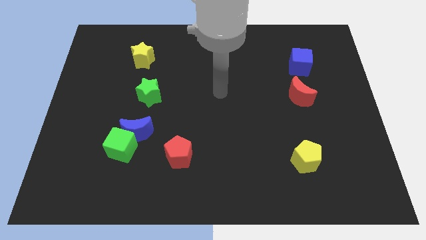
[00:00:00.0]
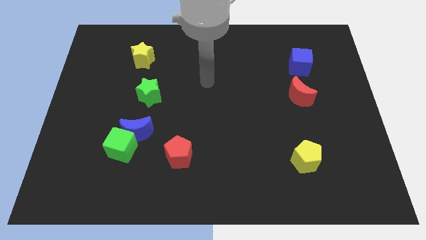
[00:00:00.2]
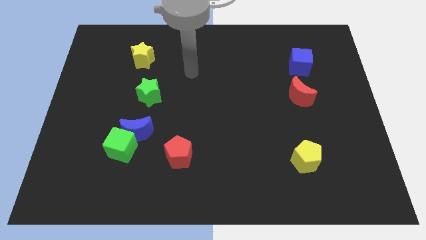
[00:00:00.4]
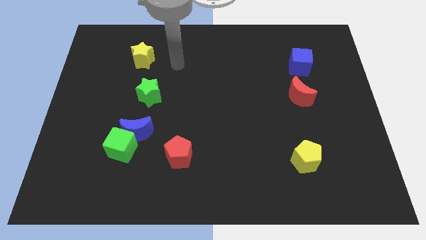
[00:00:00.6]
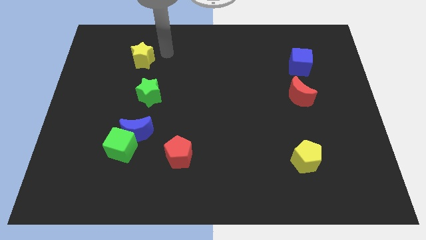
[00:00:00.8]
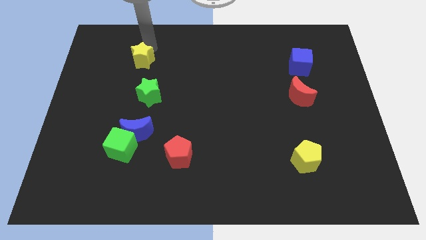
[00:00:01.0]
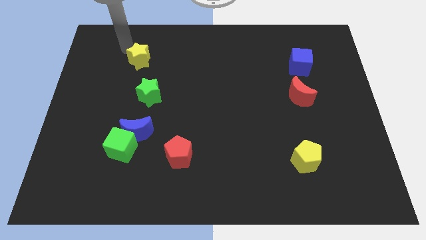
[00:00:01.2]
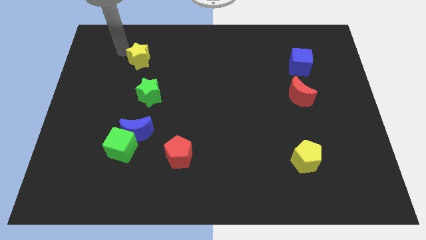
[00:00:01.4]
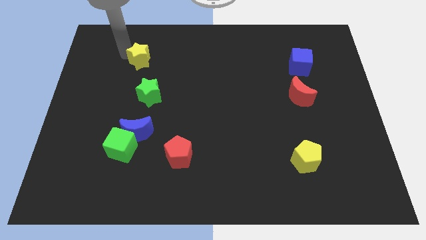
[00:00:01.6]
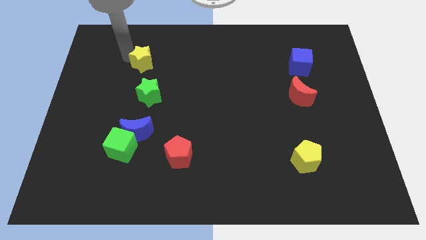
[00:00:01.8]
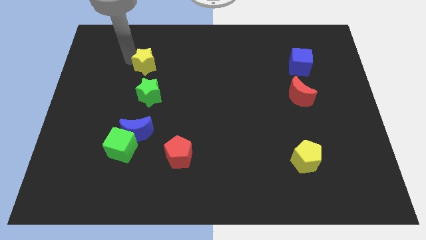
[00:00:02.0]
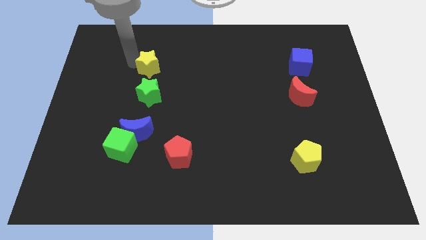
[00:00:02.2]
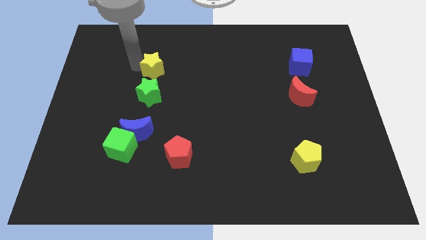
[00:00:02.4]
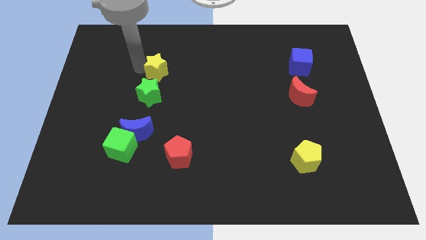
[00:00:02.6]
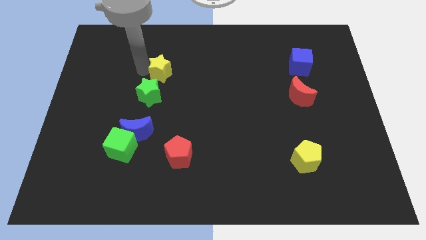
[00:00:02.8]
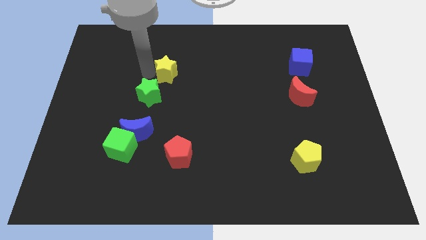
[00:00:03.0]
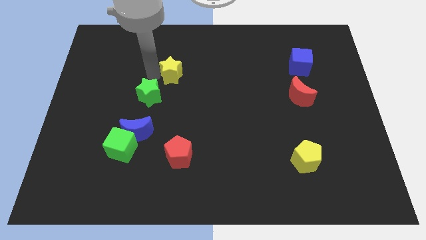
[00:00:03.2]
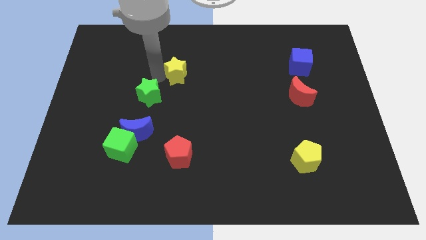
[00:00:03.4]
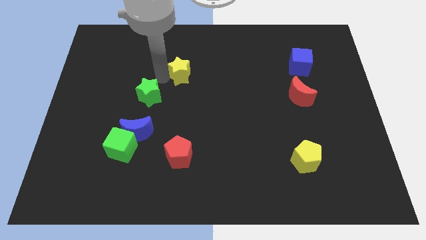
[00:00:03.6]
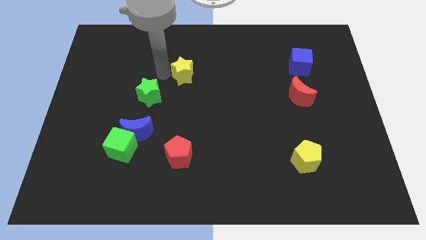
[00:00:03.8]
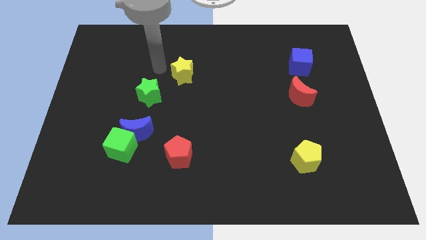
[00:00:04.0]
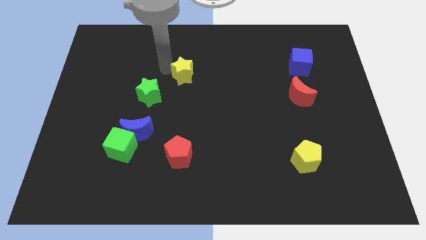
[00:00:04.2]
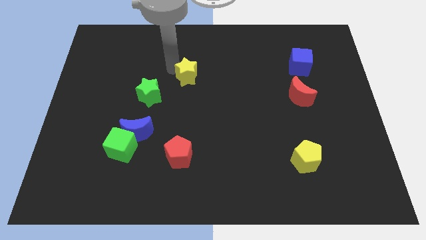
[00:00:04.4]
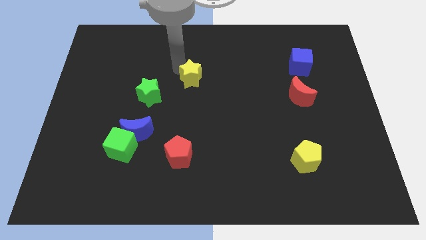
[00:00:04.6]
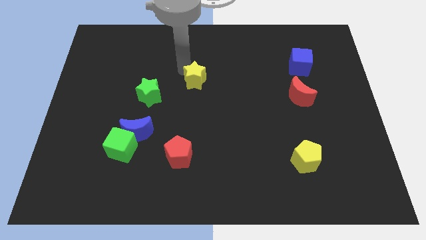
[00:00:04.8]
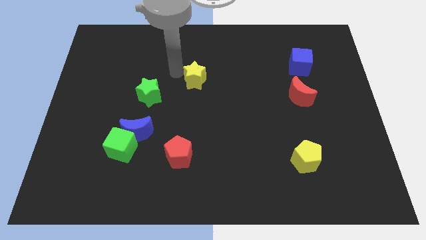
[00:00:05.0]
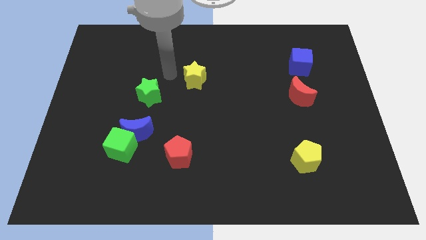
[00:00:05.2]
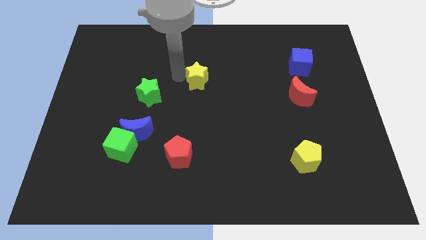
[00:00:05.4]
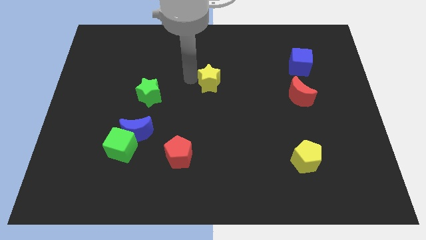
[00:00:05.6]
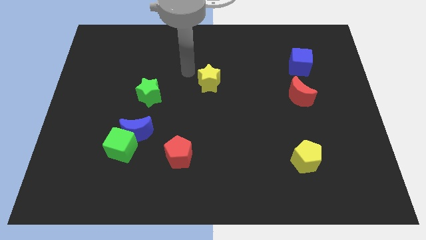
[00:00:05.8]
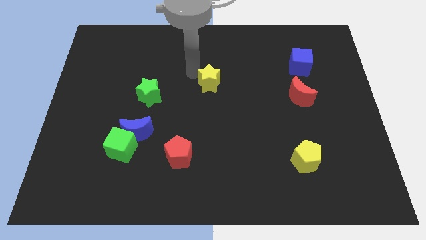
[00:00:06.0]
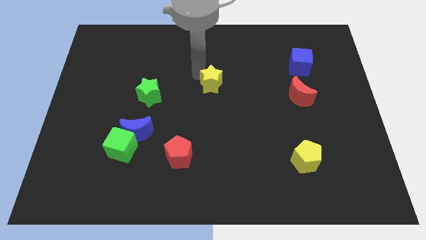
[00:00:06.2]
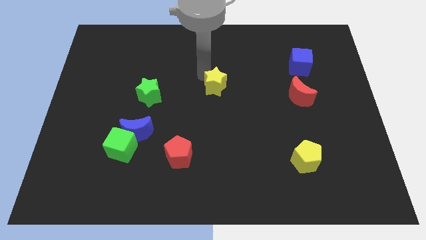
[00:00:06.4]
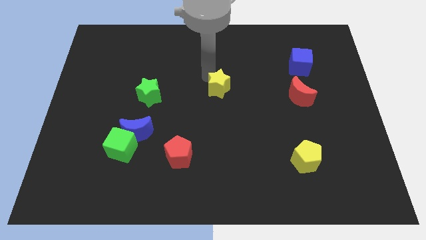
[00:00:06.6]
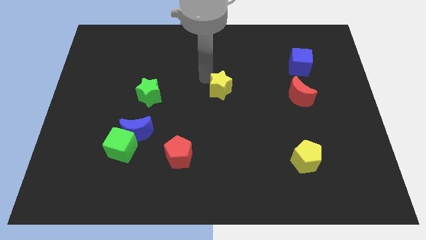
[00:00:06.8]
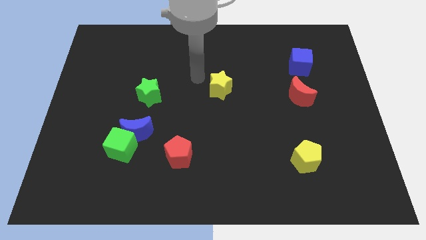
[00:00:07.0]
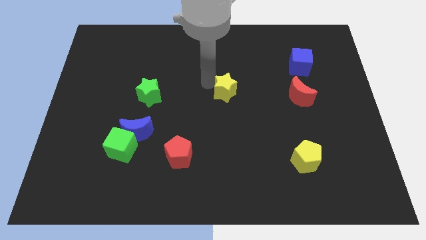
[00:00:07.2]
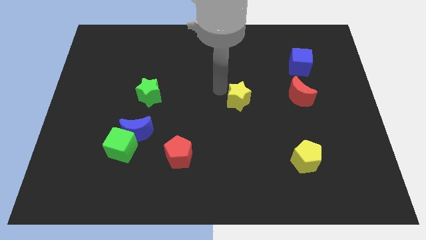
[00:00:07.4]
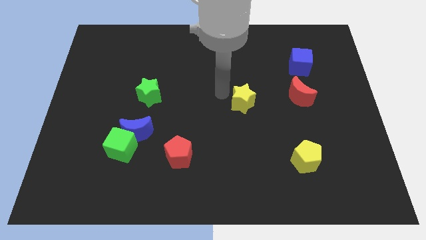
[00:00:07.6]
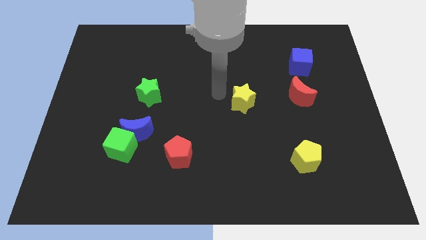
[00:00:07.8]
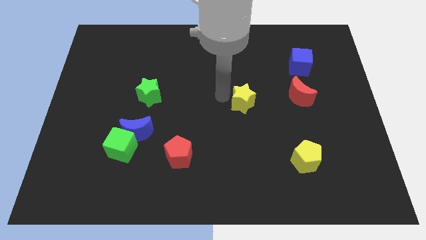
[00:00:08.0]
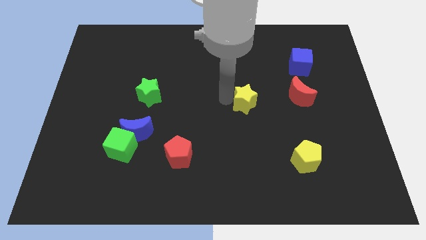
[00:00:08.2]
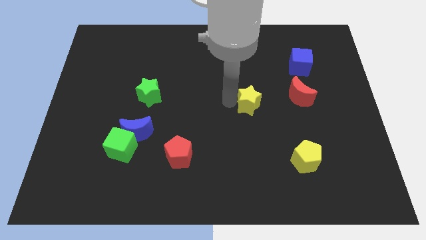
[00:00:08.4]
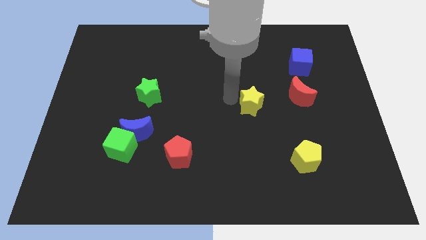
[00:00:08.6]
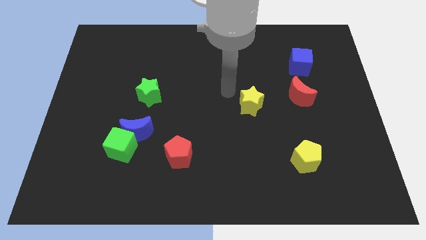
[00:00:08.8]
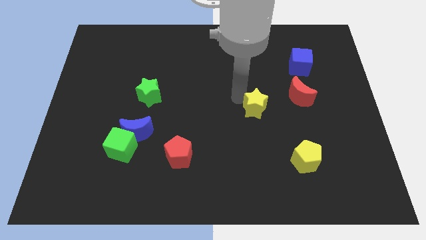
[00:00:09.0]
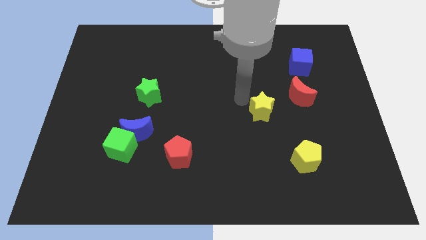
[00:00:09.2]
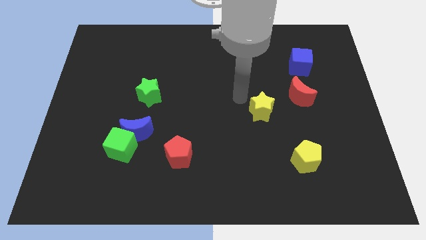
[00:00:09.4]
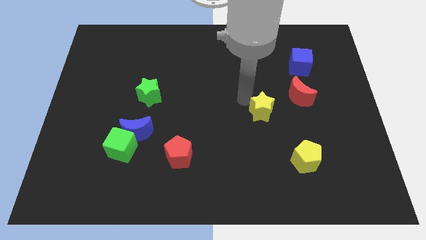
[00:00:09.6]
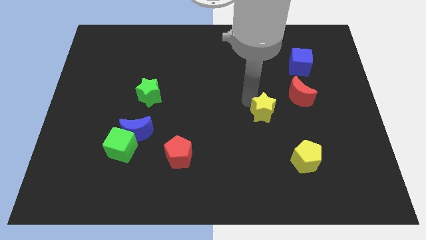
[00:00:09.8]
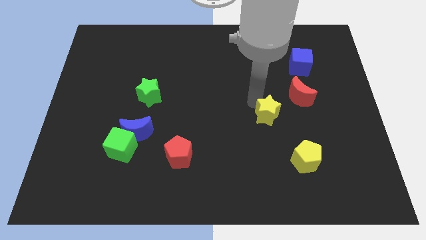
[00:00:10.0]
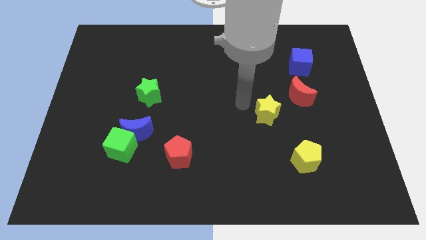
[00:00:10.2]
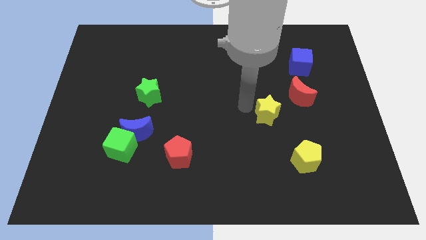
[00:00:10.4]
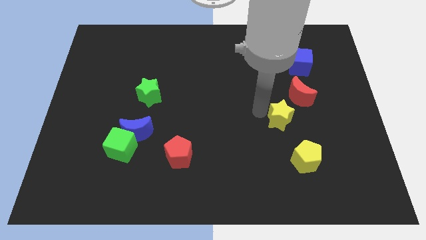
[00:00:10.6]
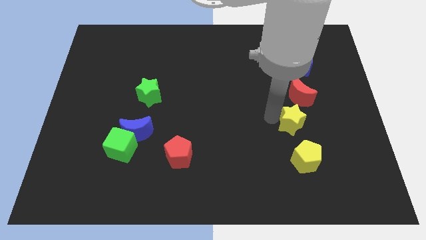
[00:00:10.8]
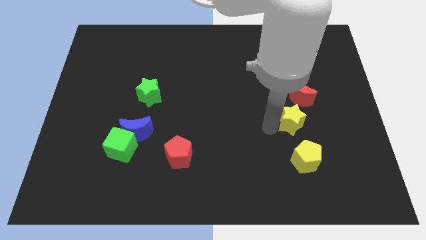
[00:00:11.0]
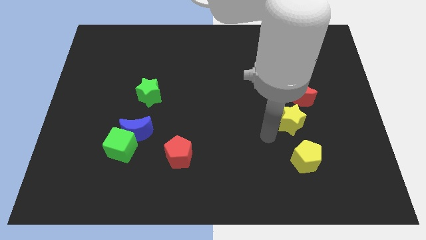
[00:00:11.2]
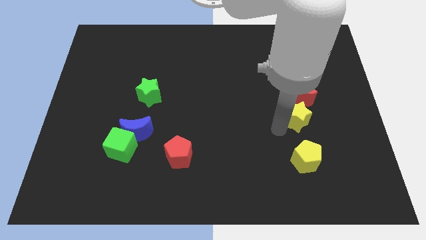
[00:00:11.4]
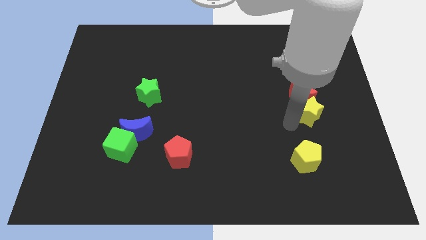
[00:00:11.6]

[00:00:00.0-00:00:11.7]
push the yellow star below the blue cube
